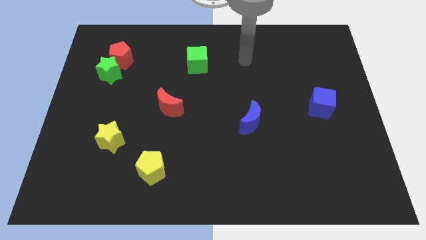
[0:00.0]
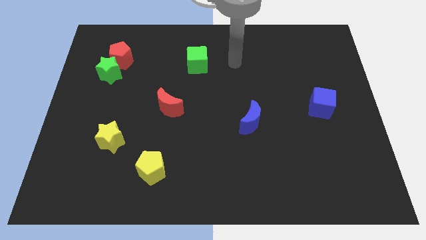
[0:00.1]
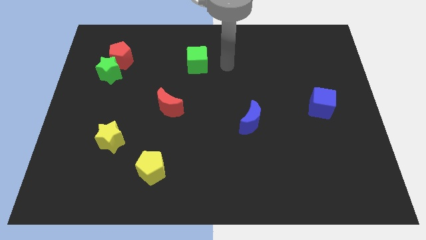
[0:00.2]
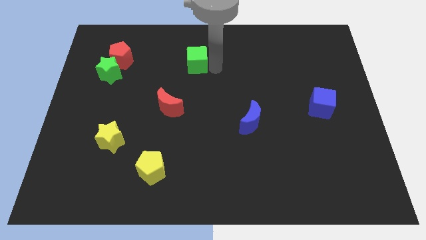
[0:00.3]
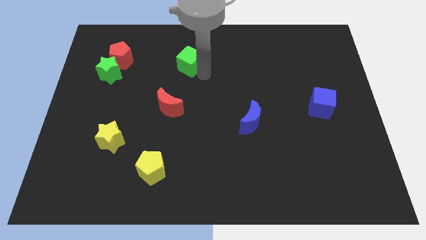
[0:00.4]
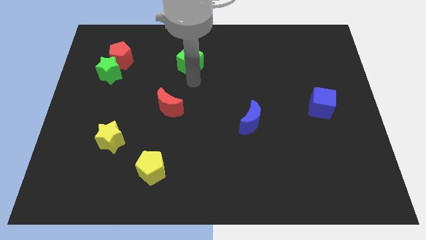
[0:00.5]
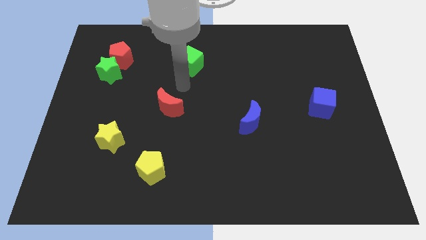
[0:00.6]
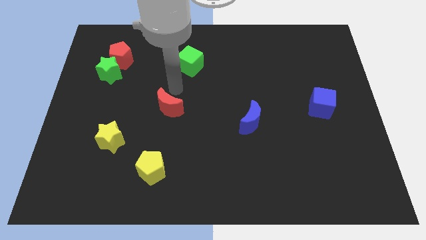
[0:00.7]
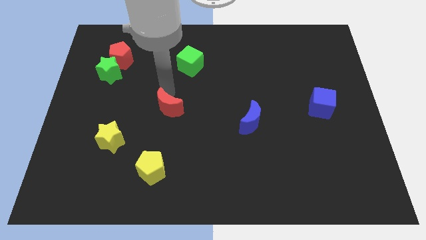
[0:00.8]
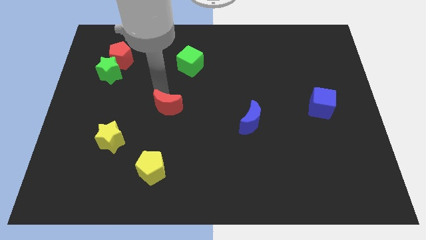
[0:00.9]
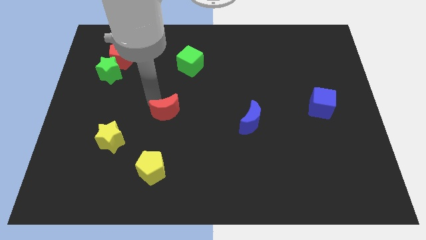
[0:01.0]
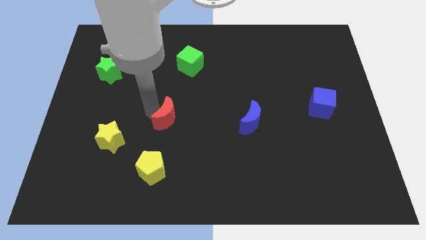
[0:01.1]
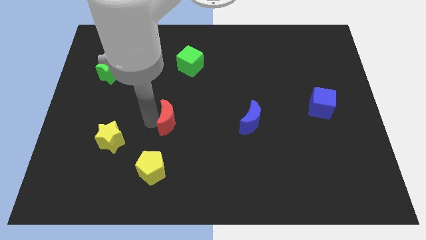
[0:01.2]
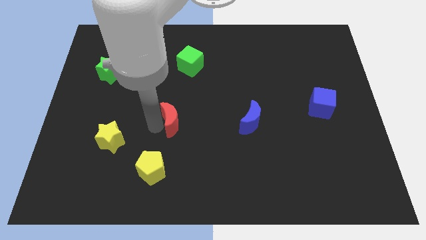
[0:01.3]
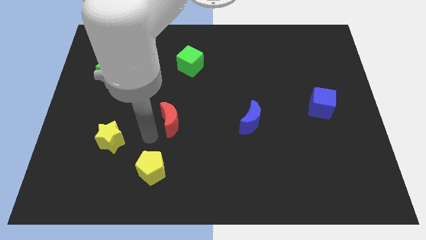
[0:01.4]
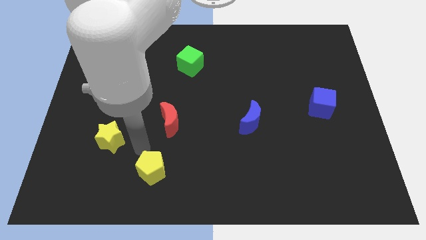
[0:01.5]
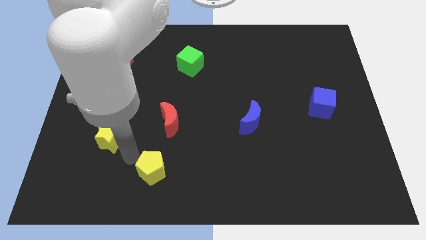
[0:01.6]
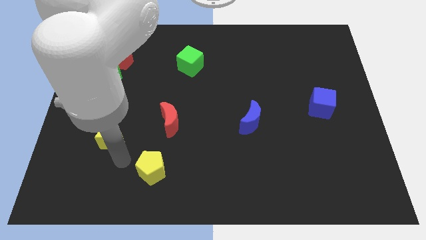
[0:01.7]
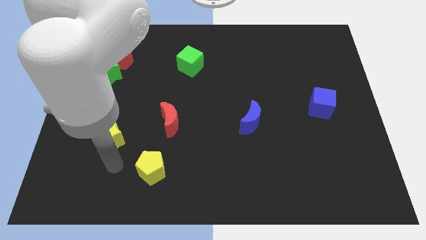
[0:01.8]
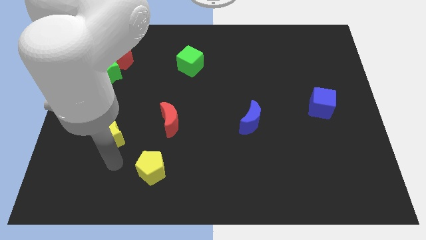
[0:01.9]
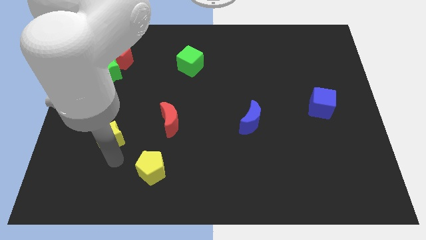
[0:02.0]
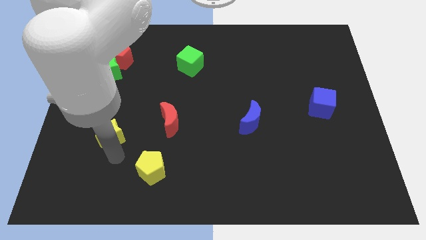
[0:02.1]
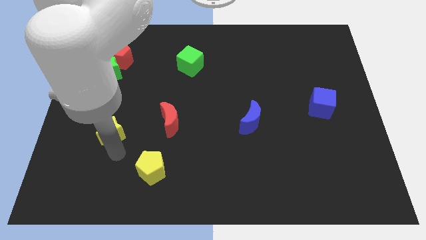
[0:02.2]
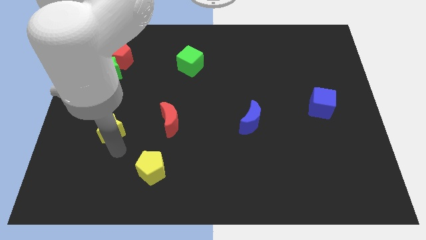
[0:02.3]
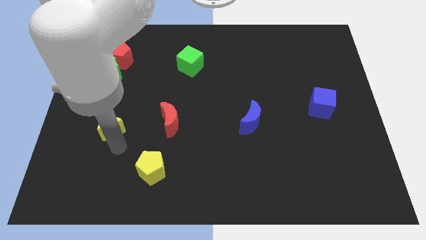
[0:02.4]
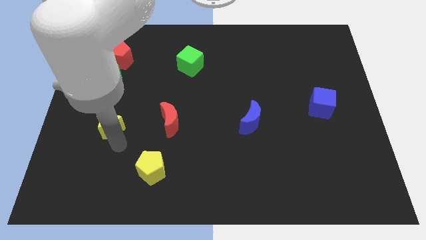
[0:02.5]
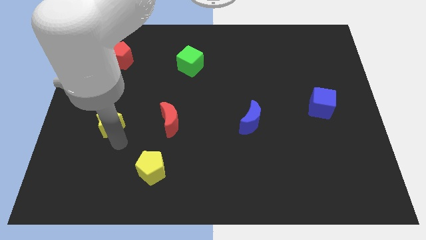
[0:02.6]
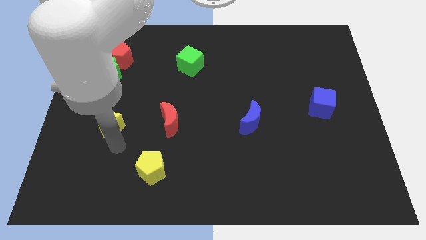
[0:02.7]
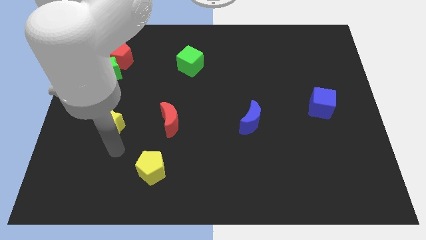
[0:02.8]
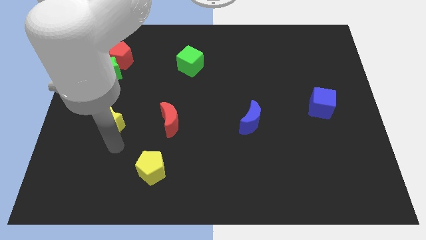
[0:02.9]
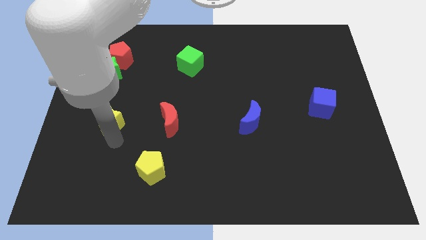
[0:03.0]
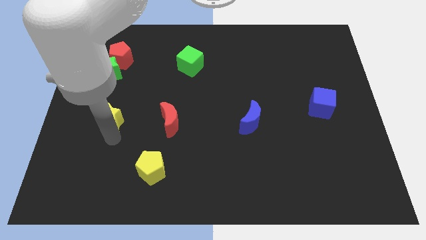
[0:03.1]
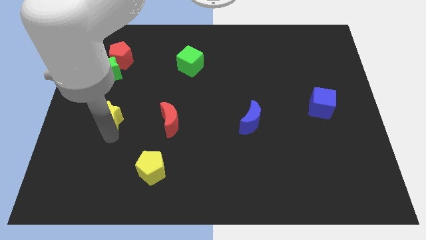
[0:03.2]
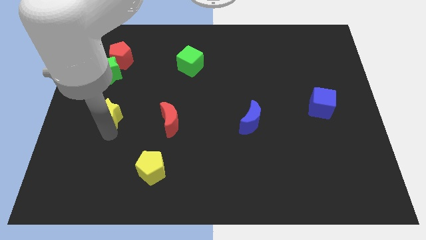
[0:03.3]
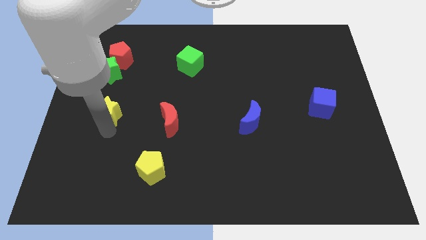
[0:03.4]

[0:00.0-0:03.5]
slightly slide the yellow star up

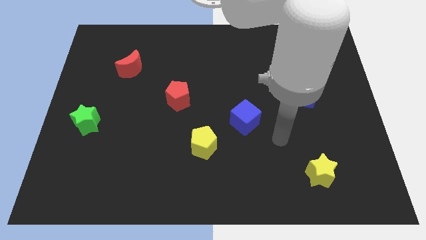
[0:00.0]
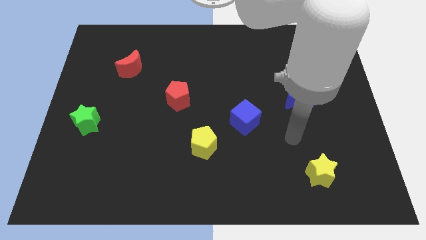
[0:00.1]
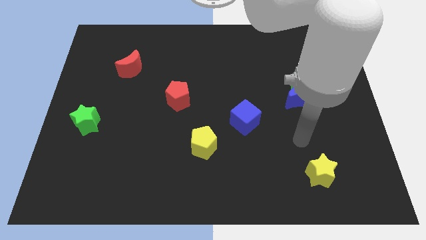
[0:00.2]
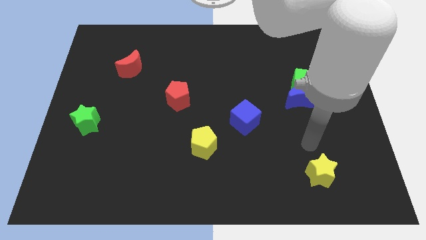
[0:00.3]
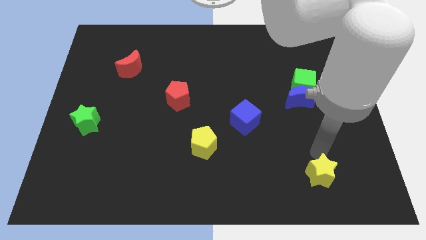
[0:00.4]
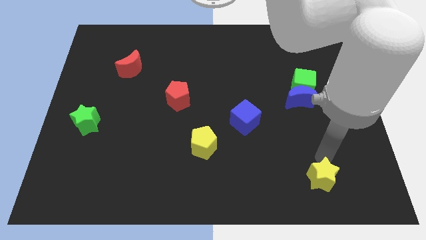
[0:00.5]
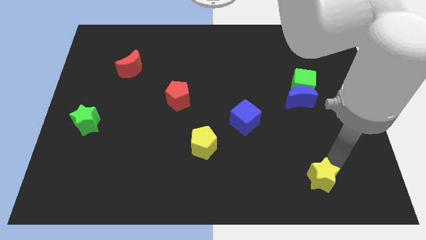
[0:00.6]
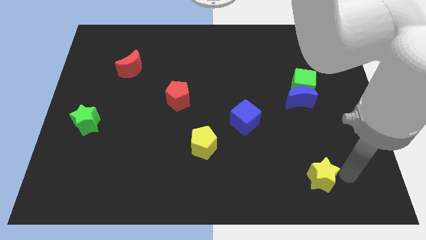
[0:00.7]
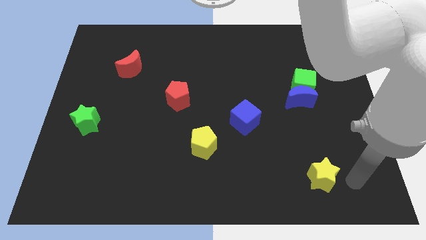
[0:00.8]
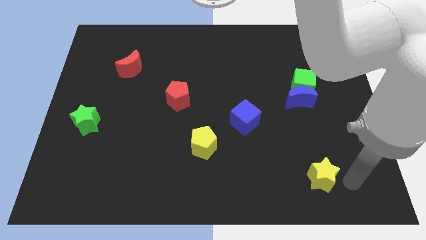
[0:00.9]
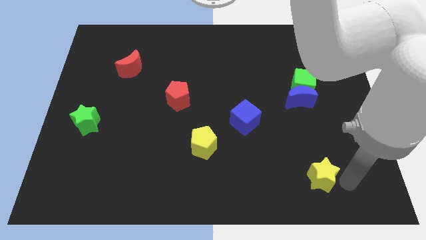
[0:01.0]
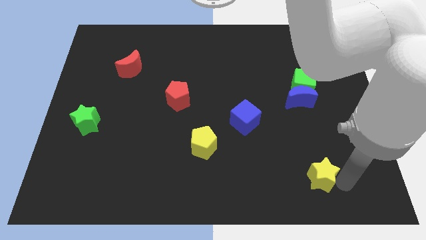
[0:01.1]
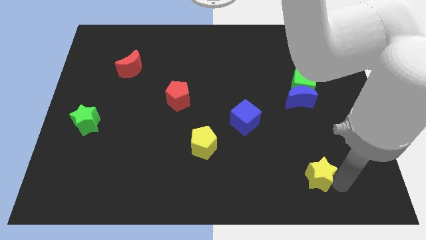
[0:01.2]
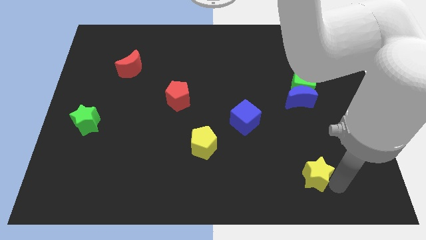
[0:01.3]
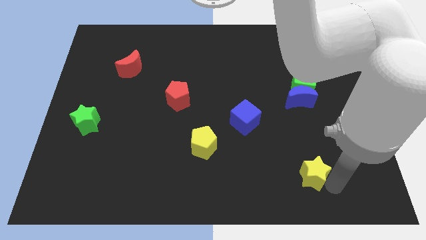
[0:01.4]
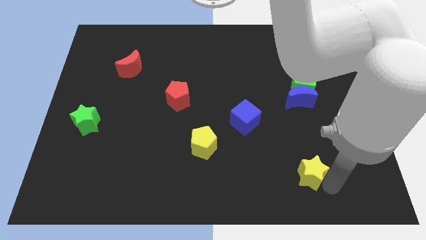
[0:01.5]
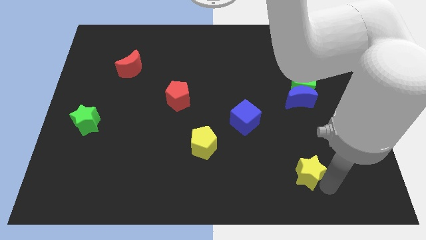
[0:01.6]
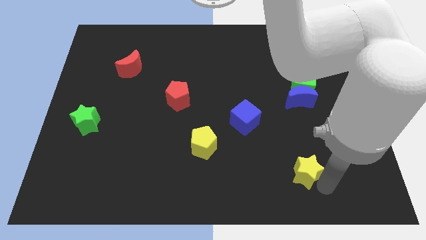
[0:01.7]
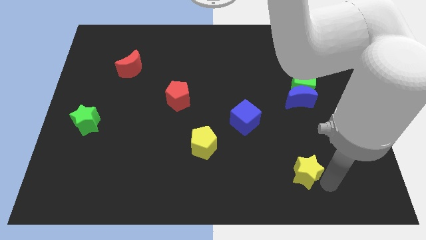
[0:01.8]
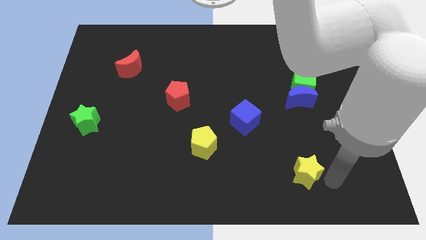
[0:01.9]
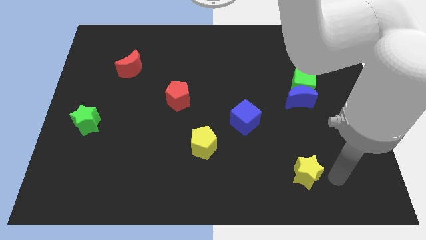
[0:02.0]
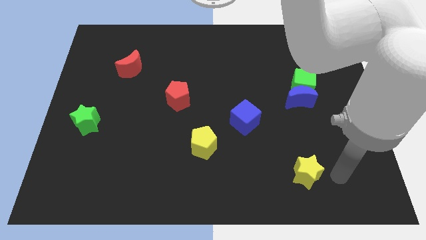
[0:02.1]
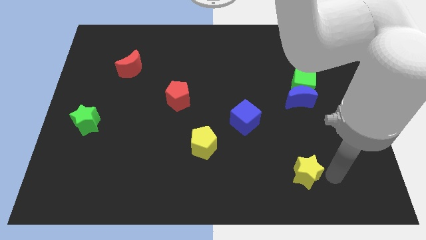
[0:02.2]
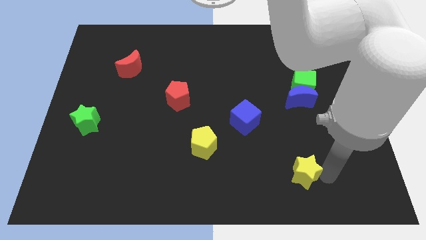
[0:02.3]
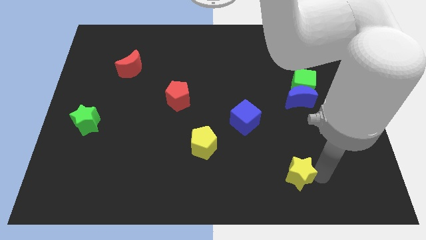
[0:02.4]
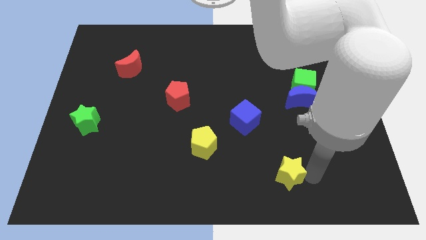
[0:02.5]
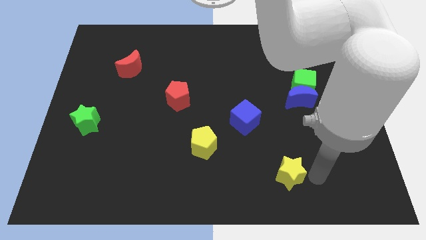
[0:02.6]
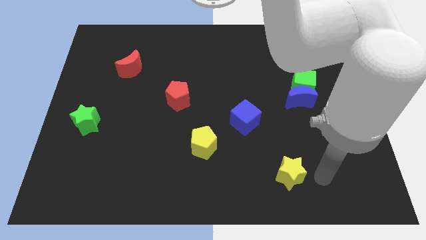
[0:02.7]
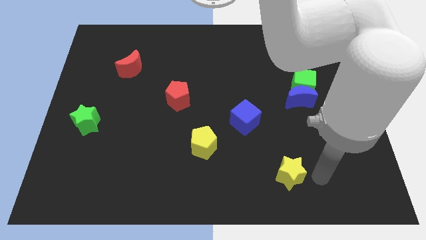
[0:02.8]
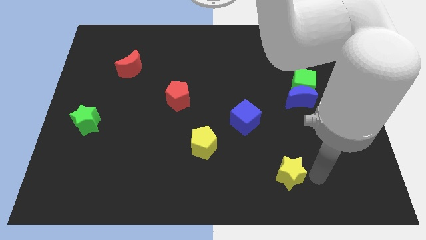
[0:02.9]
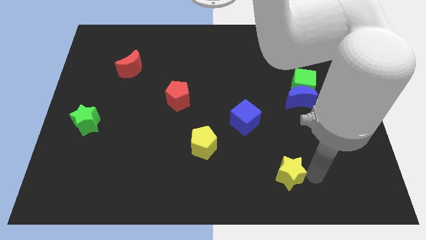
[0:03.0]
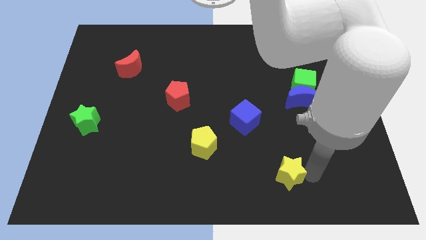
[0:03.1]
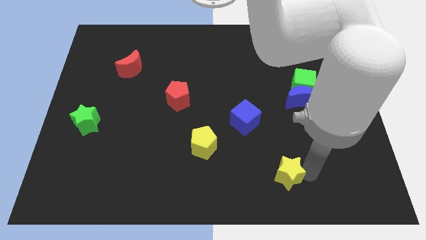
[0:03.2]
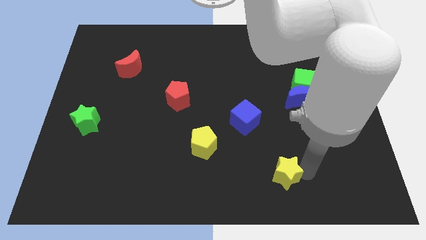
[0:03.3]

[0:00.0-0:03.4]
move the yellow star a little to the left

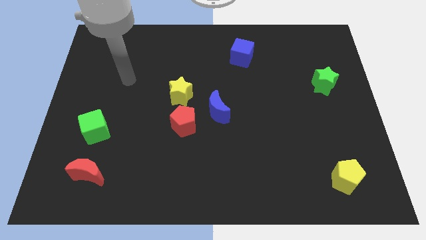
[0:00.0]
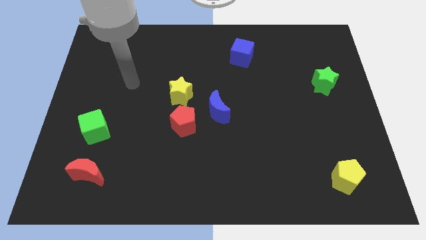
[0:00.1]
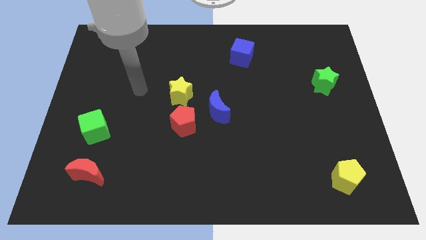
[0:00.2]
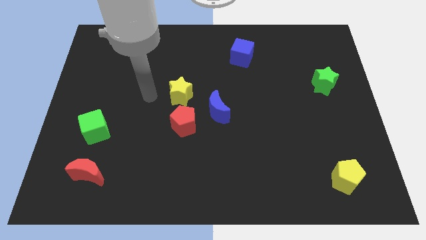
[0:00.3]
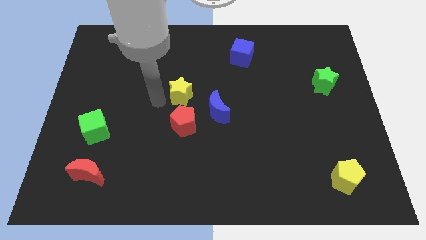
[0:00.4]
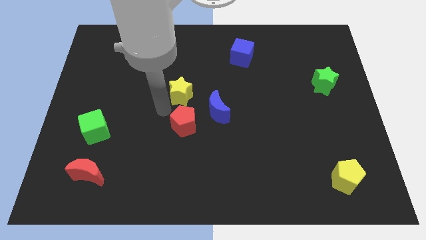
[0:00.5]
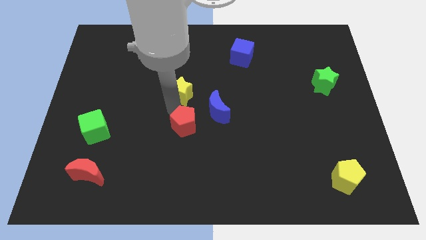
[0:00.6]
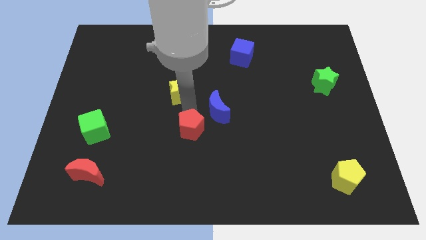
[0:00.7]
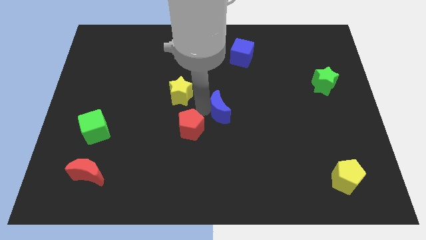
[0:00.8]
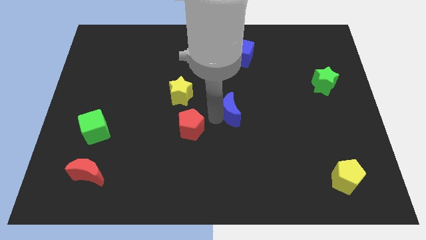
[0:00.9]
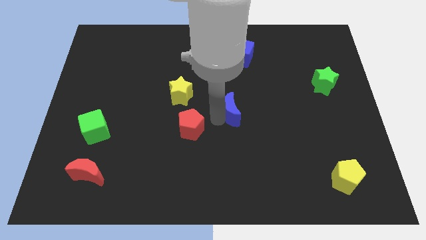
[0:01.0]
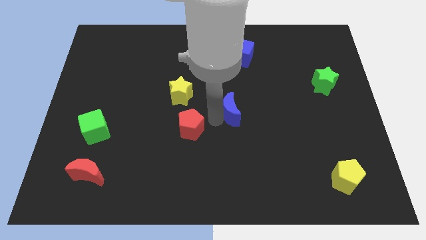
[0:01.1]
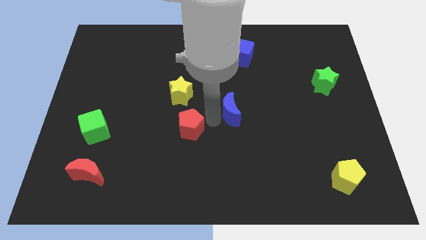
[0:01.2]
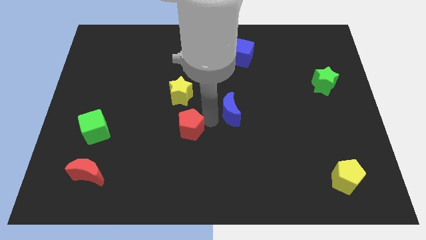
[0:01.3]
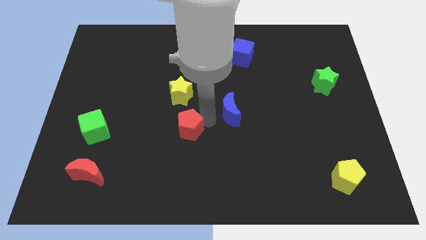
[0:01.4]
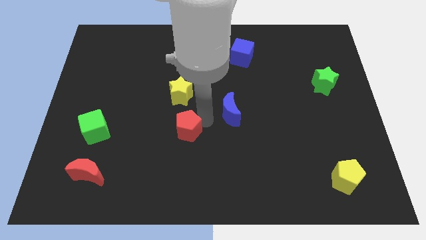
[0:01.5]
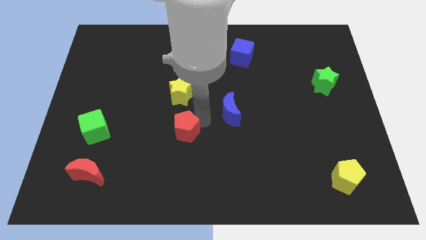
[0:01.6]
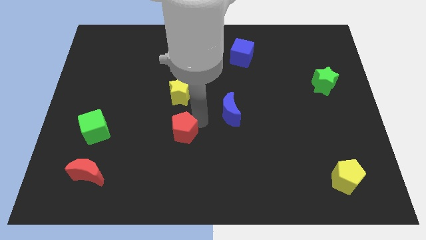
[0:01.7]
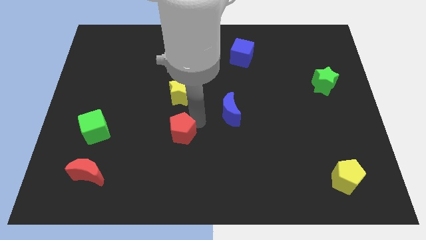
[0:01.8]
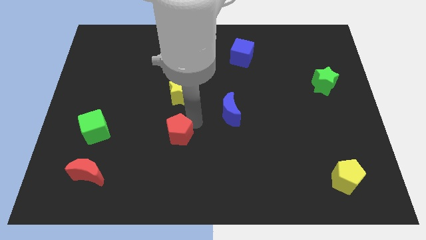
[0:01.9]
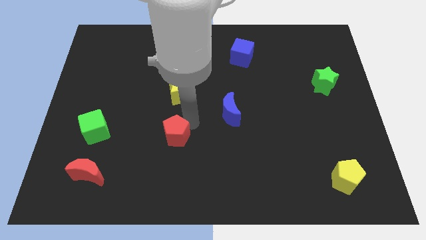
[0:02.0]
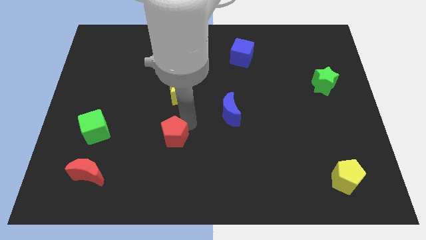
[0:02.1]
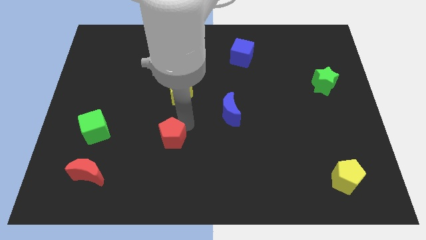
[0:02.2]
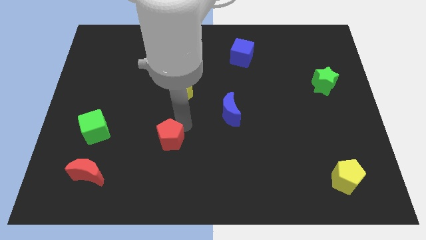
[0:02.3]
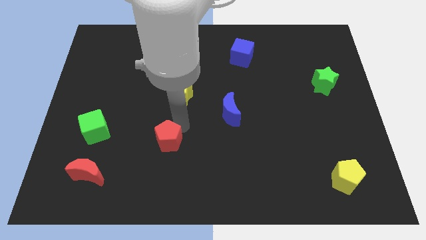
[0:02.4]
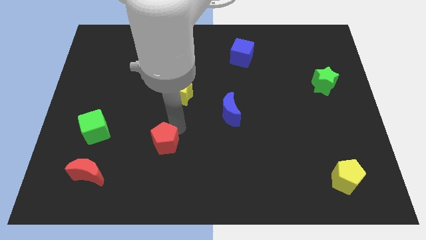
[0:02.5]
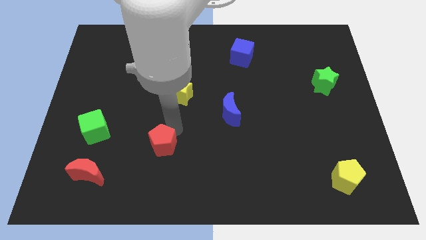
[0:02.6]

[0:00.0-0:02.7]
slightly slide the red pentagon diagonally down and to the left
